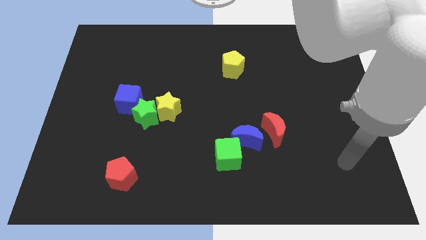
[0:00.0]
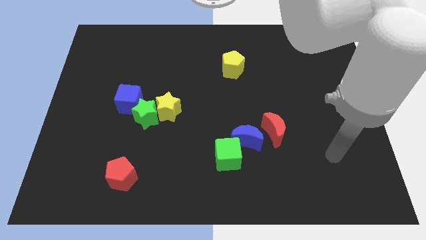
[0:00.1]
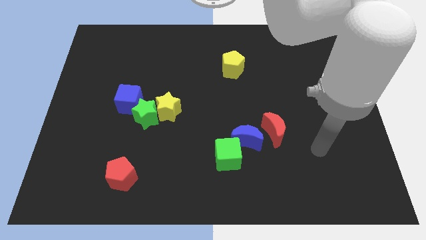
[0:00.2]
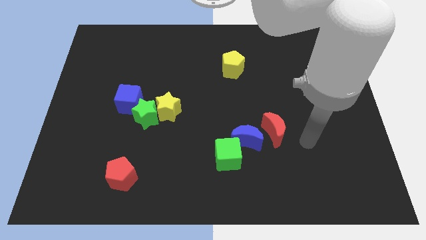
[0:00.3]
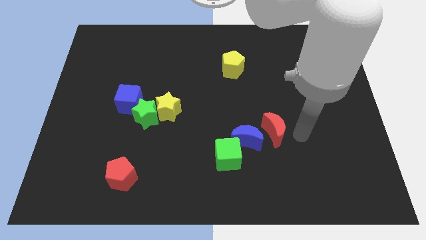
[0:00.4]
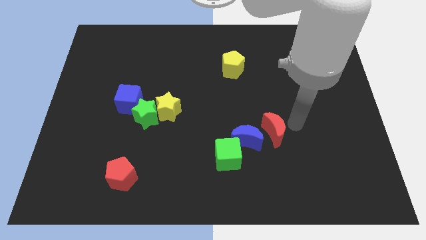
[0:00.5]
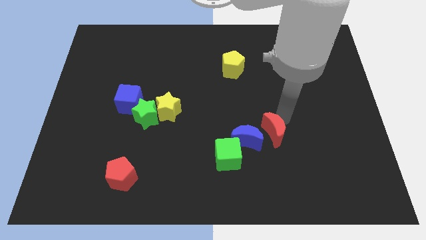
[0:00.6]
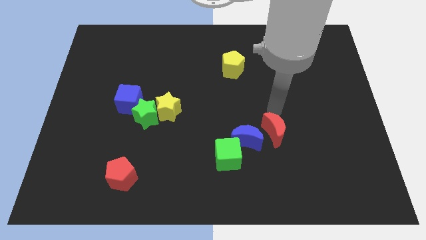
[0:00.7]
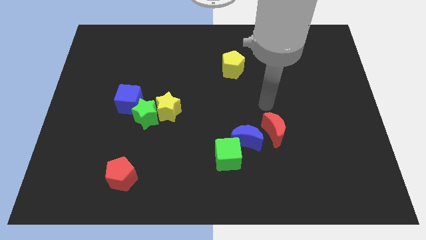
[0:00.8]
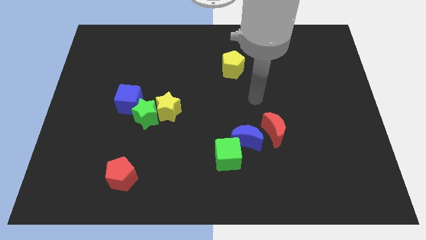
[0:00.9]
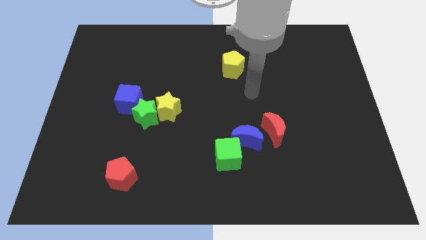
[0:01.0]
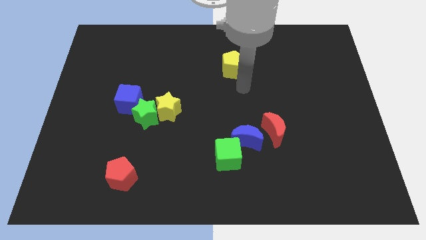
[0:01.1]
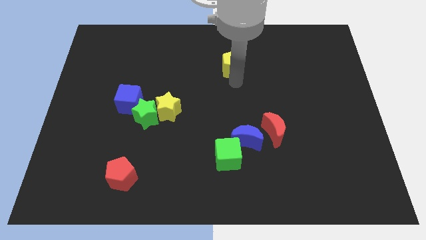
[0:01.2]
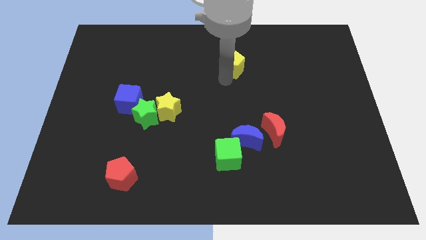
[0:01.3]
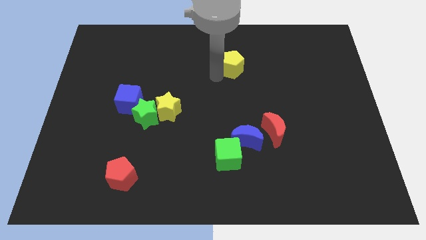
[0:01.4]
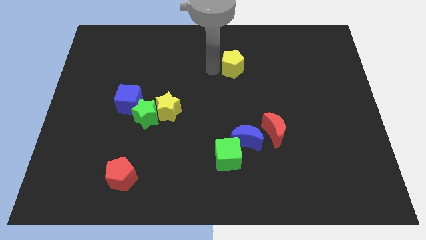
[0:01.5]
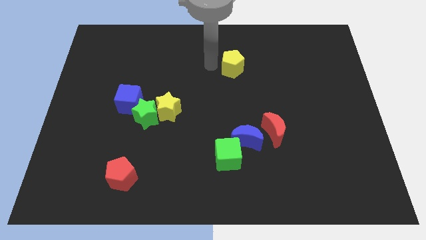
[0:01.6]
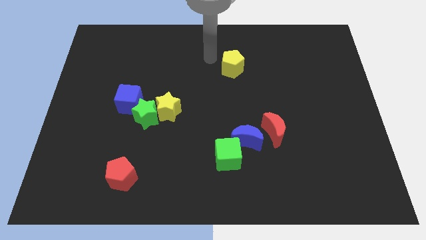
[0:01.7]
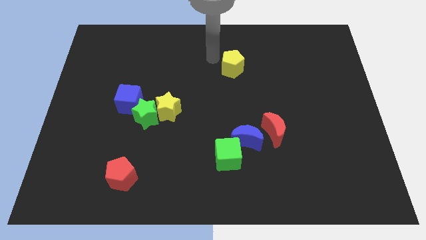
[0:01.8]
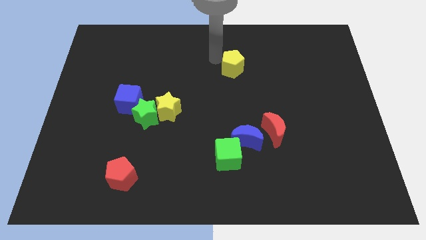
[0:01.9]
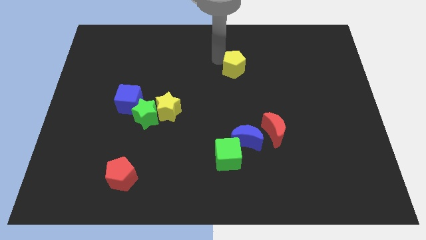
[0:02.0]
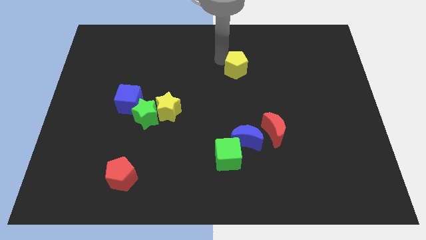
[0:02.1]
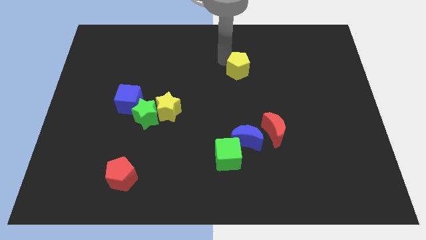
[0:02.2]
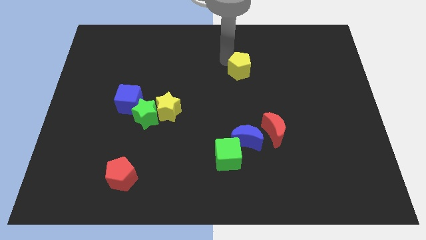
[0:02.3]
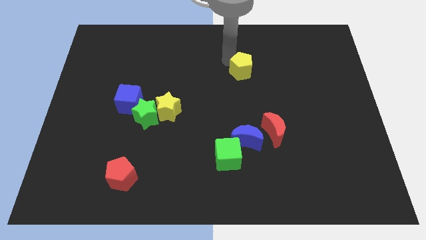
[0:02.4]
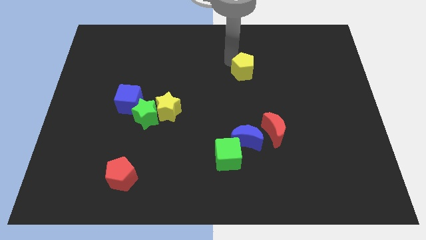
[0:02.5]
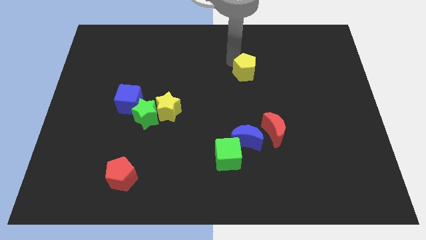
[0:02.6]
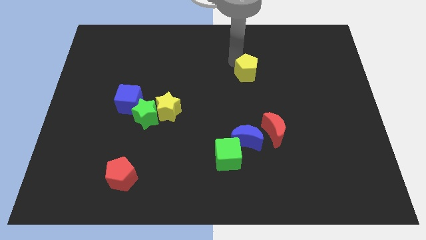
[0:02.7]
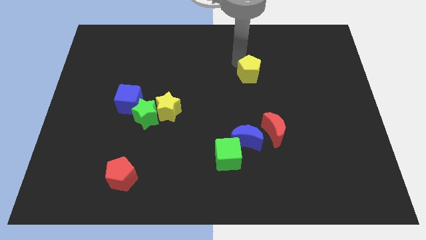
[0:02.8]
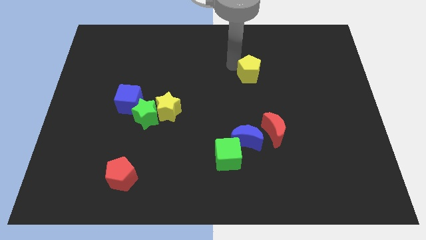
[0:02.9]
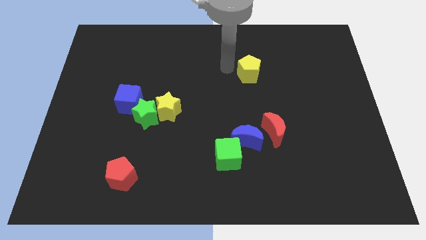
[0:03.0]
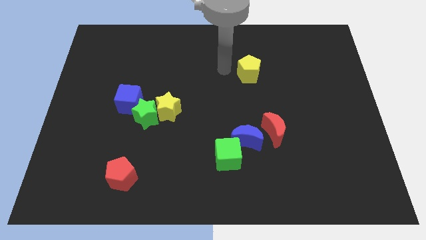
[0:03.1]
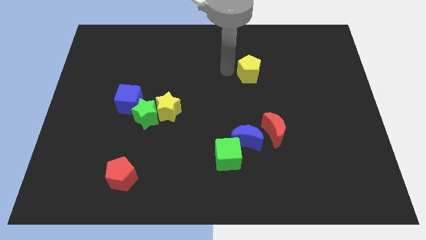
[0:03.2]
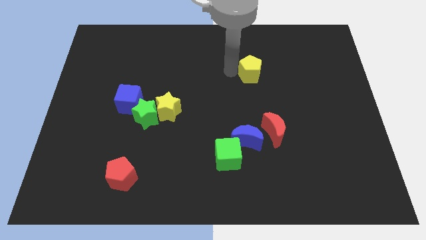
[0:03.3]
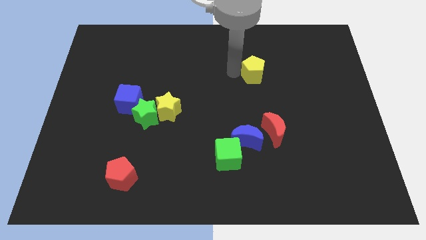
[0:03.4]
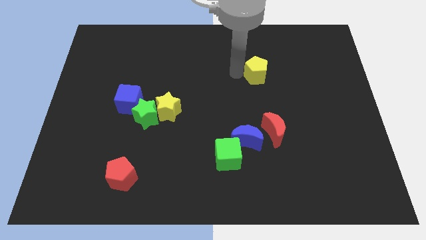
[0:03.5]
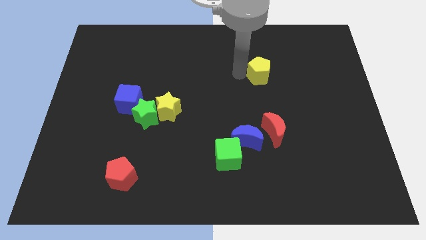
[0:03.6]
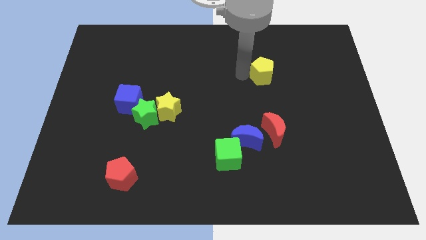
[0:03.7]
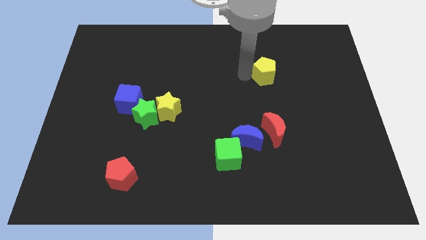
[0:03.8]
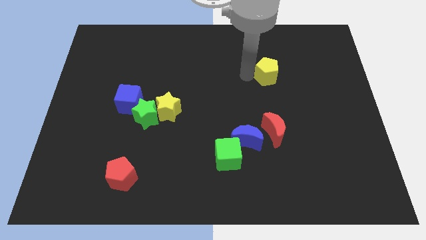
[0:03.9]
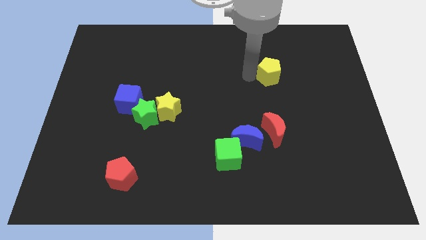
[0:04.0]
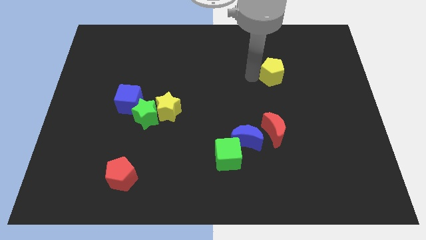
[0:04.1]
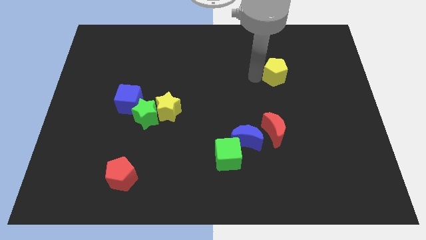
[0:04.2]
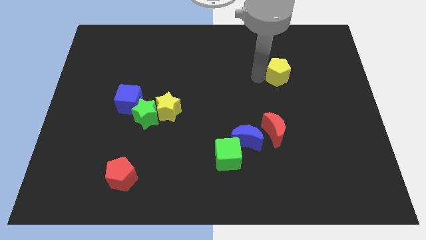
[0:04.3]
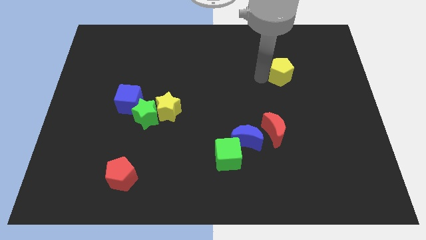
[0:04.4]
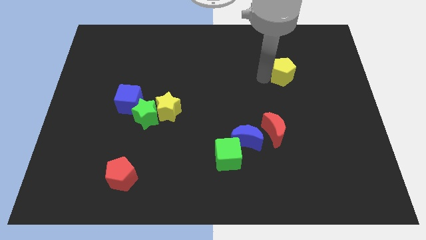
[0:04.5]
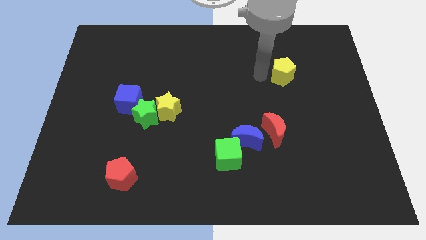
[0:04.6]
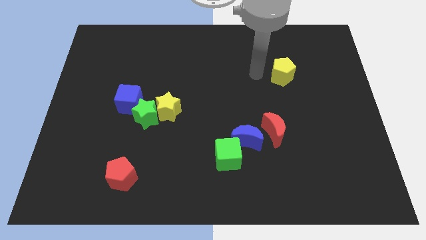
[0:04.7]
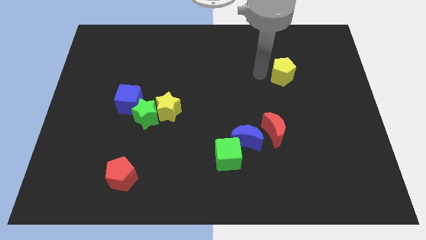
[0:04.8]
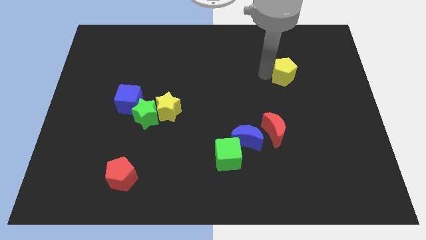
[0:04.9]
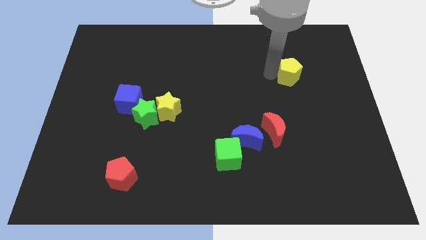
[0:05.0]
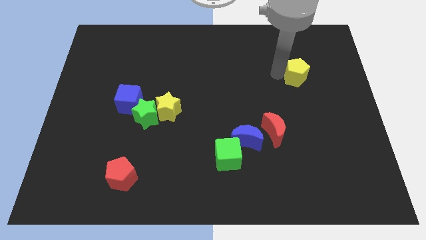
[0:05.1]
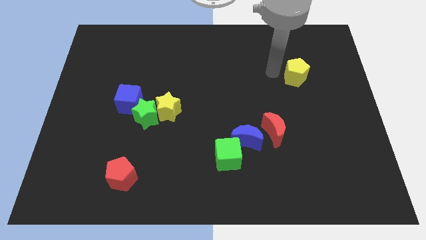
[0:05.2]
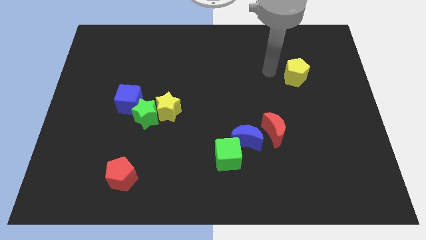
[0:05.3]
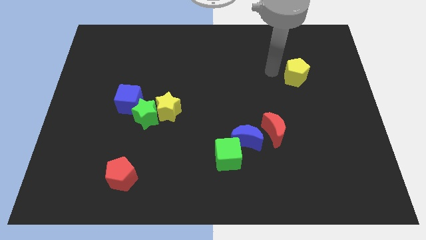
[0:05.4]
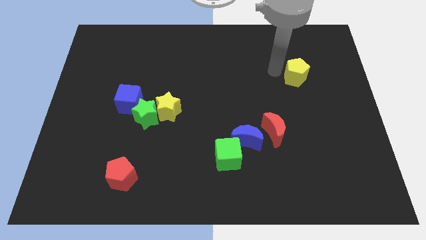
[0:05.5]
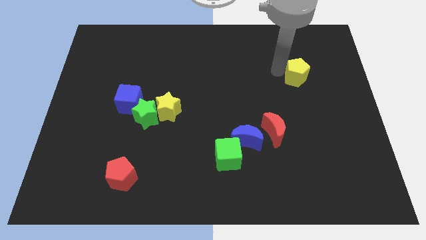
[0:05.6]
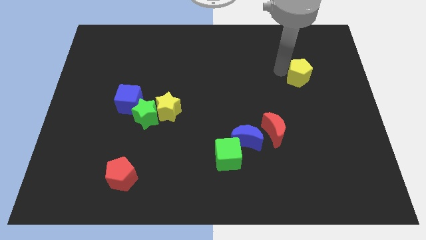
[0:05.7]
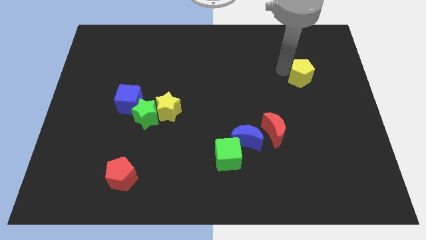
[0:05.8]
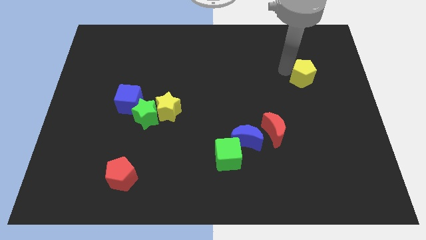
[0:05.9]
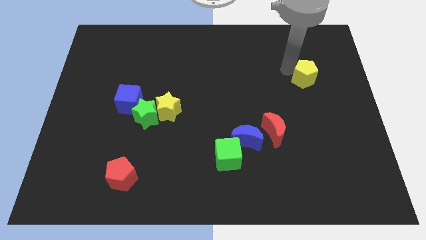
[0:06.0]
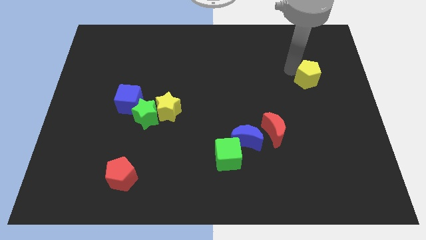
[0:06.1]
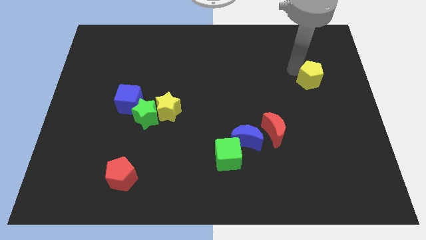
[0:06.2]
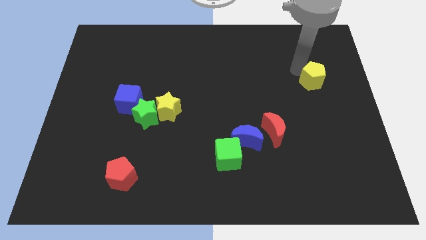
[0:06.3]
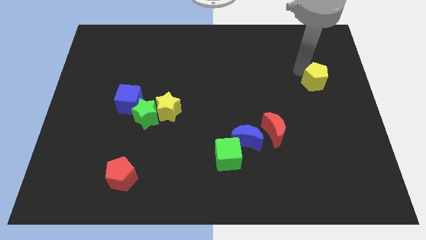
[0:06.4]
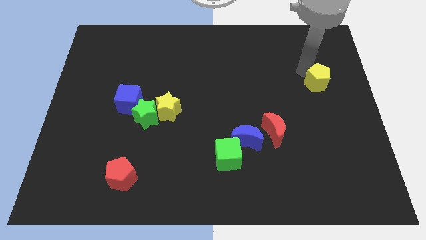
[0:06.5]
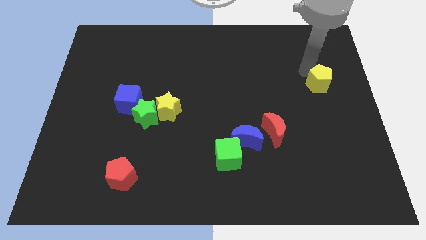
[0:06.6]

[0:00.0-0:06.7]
push the yellow pentagon to the right side of the board

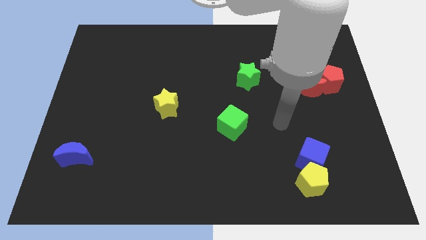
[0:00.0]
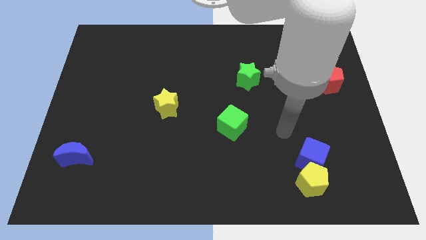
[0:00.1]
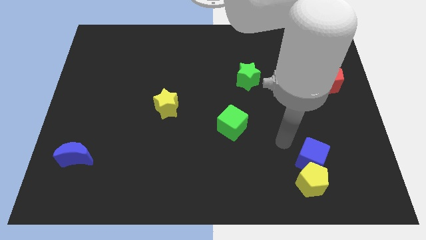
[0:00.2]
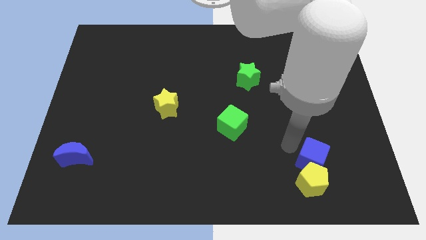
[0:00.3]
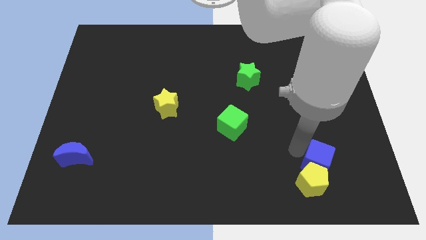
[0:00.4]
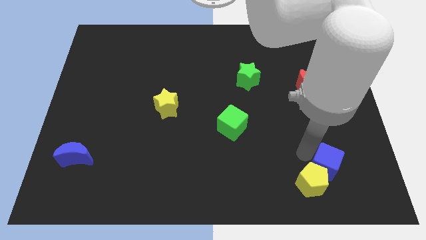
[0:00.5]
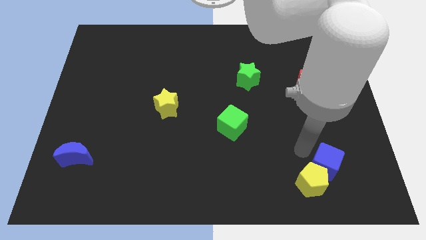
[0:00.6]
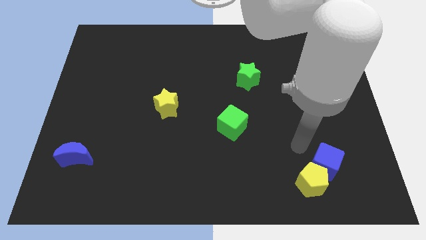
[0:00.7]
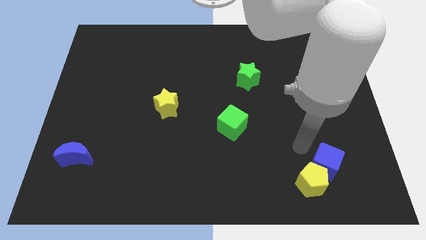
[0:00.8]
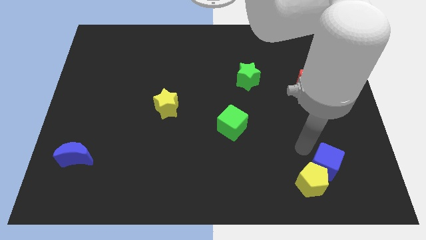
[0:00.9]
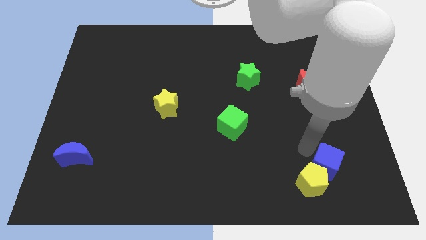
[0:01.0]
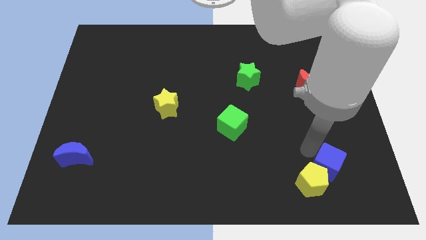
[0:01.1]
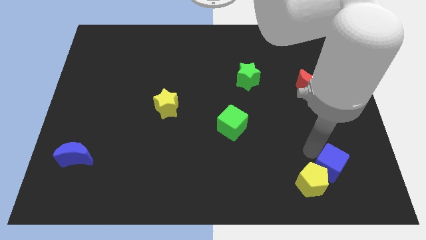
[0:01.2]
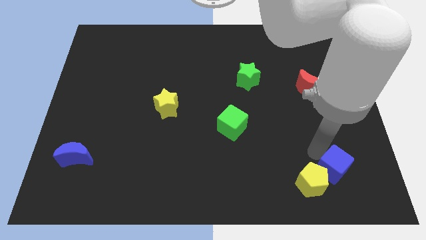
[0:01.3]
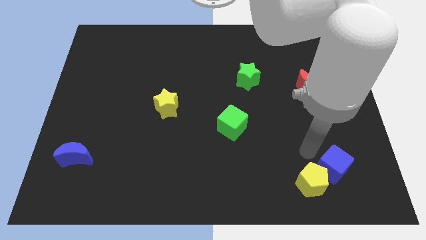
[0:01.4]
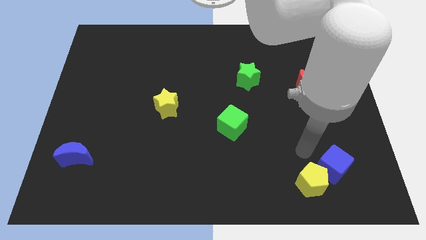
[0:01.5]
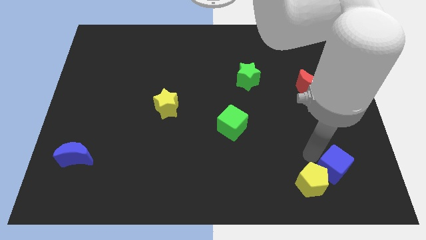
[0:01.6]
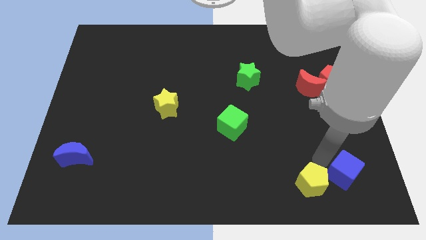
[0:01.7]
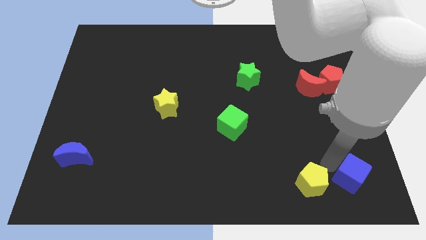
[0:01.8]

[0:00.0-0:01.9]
push the blue cube to the bottom right of the board
